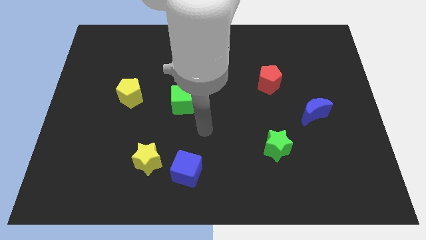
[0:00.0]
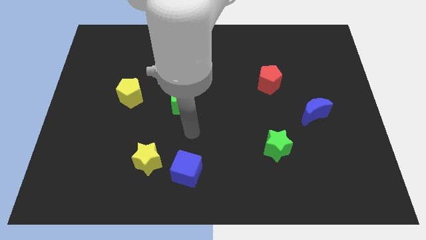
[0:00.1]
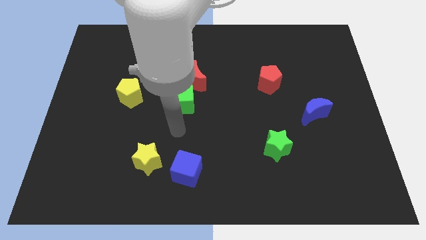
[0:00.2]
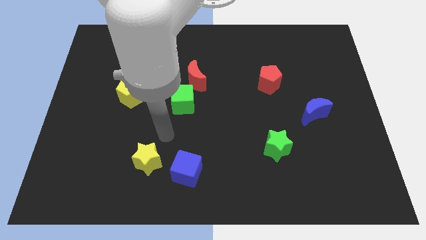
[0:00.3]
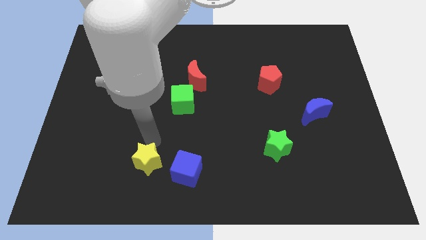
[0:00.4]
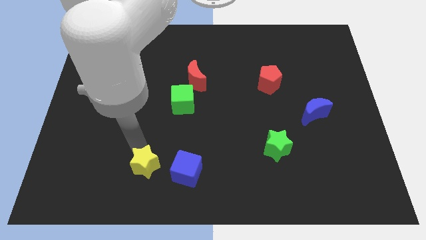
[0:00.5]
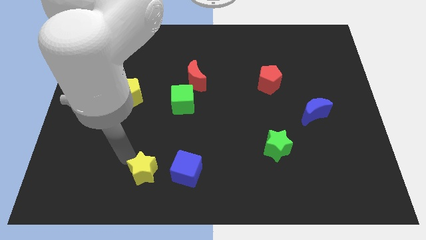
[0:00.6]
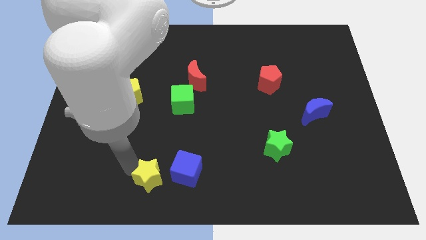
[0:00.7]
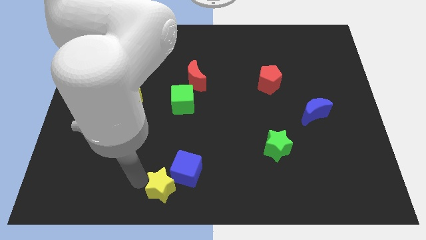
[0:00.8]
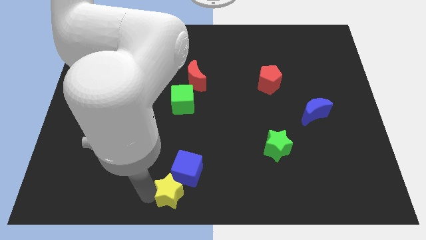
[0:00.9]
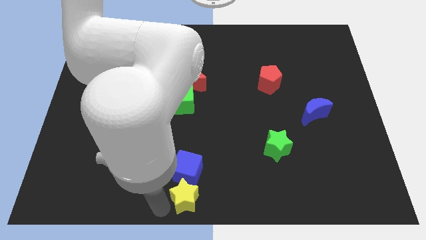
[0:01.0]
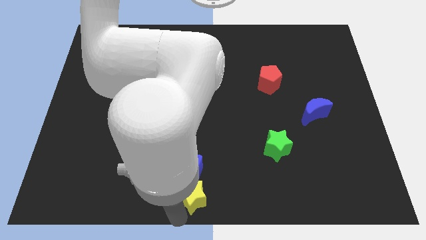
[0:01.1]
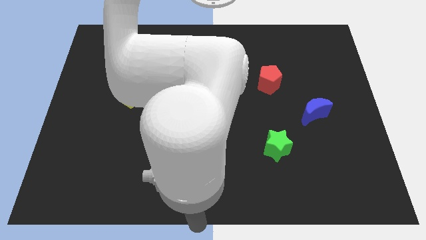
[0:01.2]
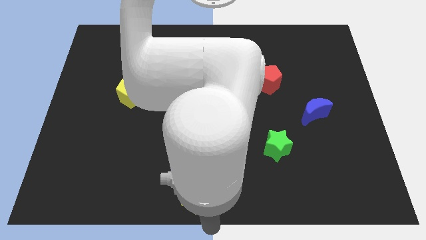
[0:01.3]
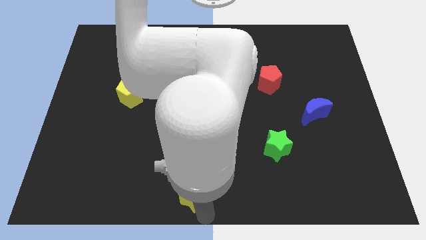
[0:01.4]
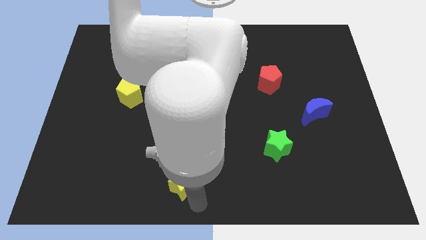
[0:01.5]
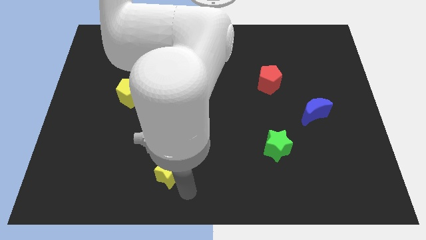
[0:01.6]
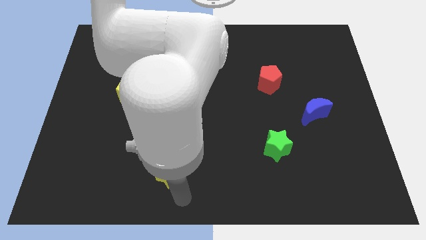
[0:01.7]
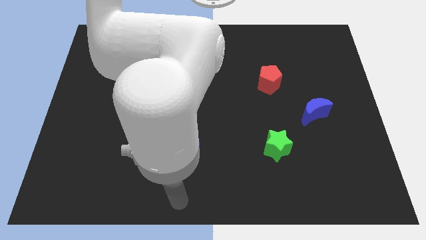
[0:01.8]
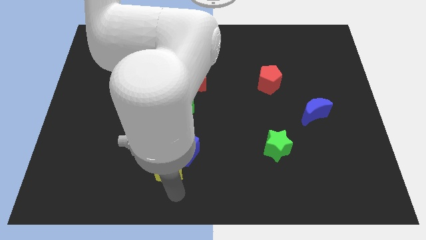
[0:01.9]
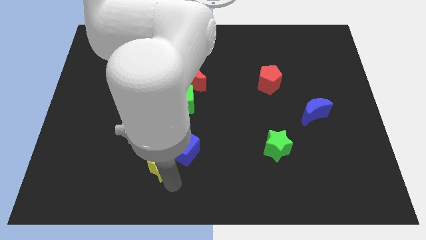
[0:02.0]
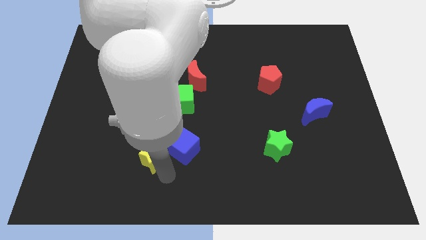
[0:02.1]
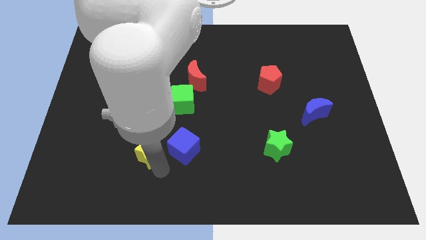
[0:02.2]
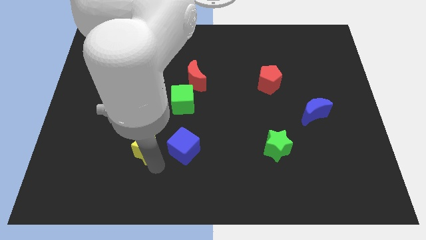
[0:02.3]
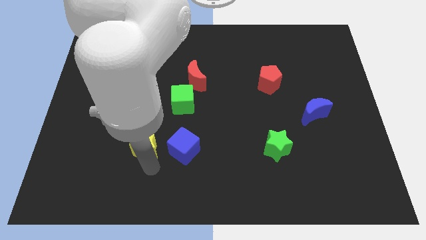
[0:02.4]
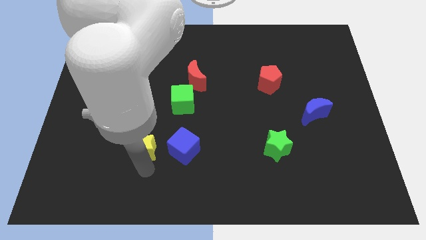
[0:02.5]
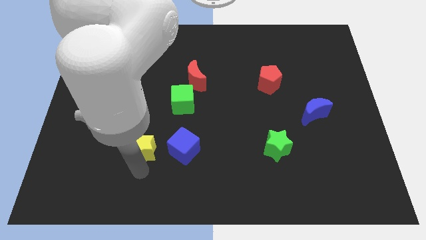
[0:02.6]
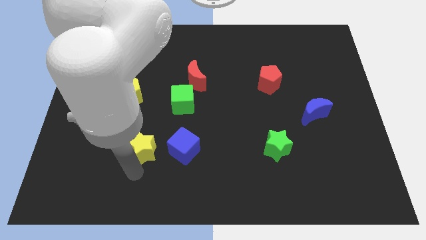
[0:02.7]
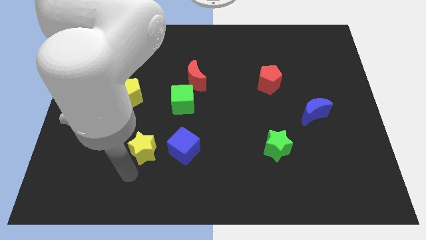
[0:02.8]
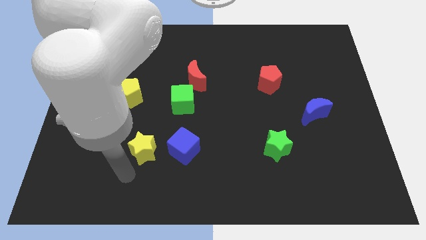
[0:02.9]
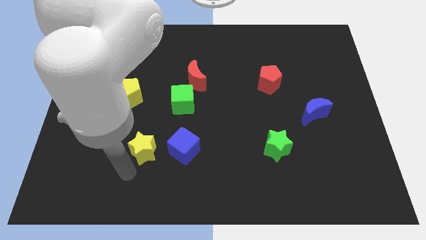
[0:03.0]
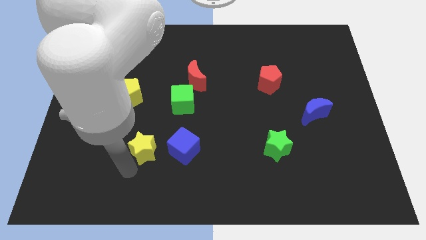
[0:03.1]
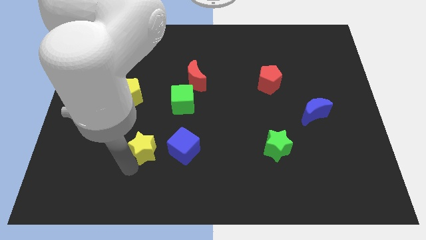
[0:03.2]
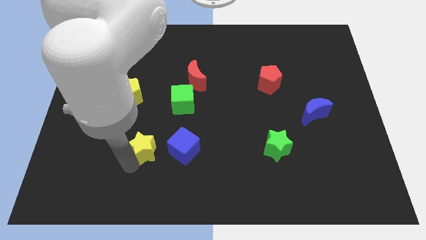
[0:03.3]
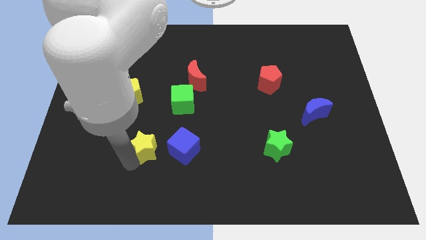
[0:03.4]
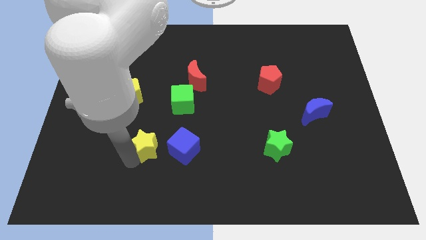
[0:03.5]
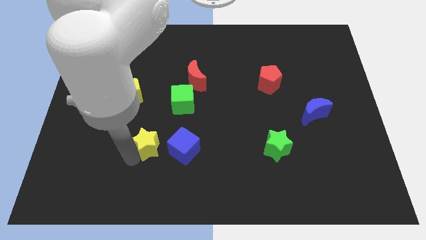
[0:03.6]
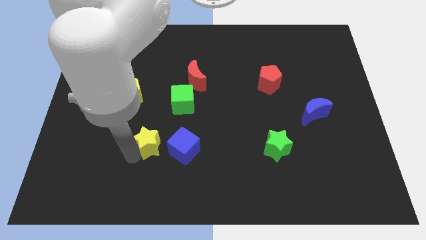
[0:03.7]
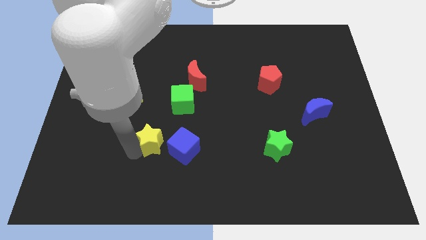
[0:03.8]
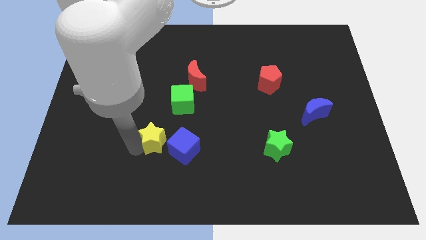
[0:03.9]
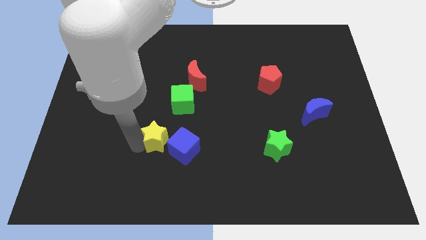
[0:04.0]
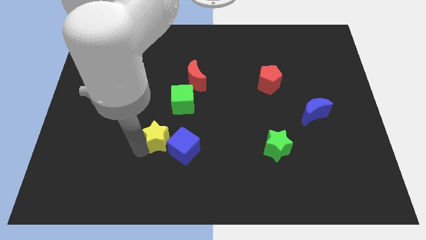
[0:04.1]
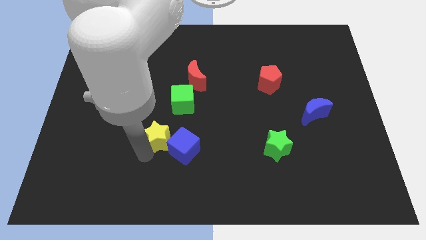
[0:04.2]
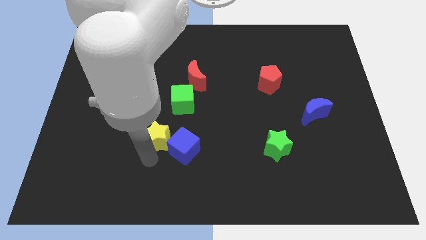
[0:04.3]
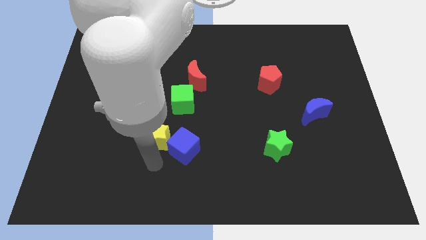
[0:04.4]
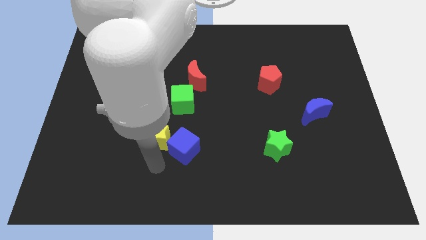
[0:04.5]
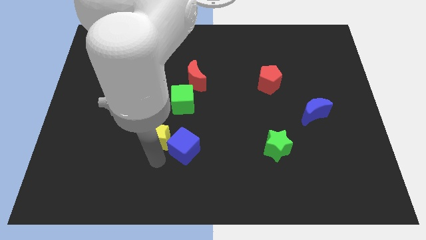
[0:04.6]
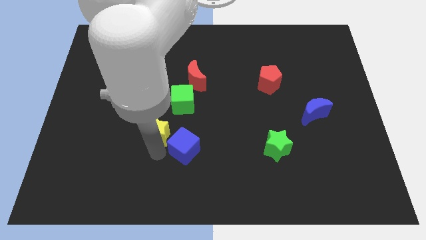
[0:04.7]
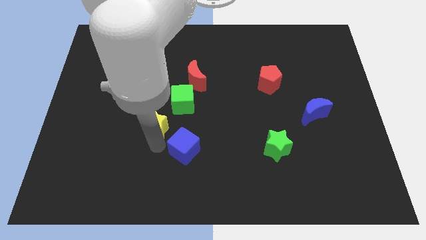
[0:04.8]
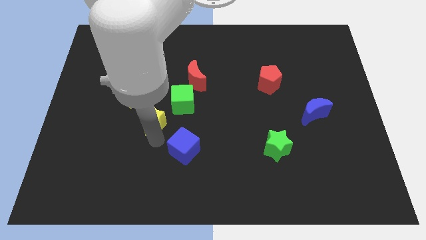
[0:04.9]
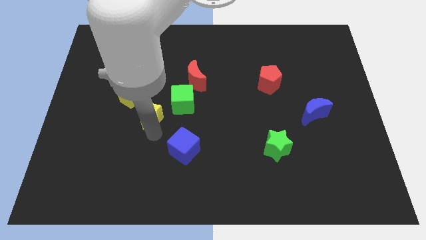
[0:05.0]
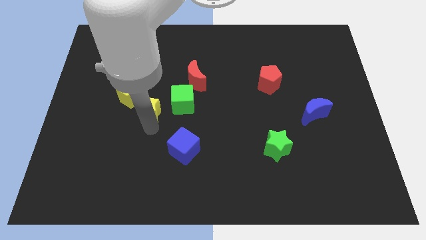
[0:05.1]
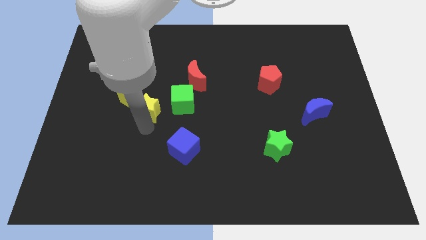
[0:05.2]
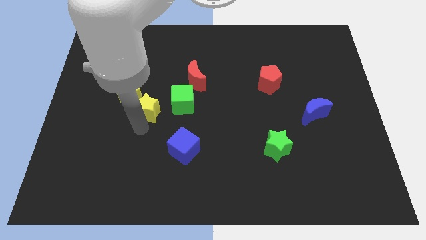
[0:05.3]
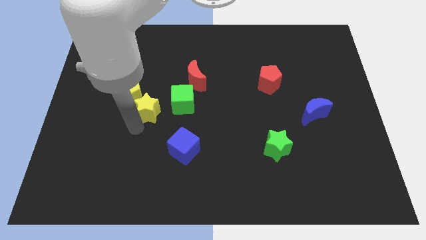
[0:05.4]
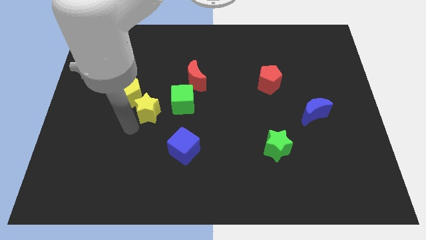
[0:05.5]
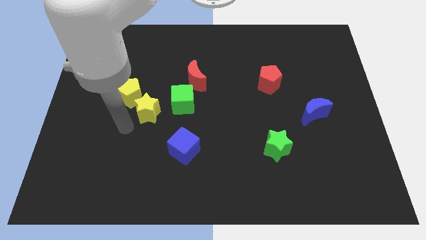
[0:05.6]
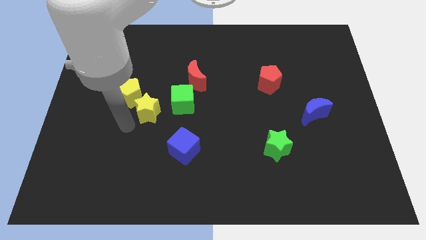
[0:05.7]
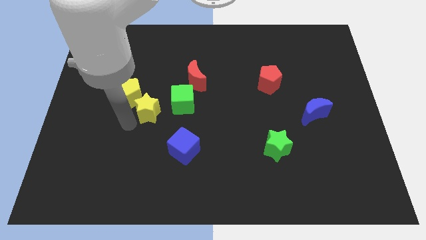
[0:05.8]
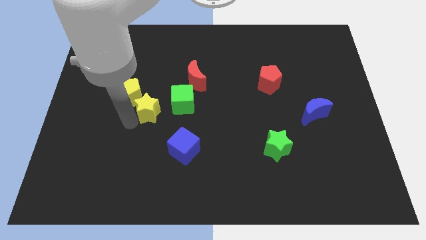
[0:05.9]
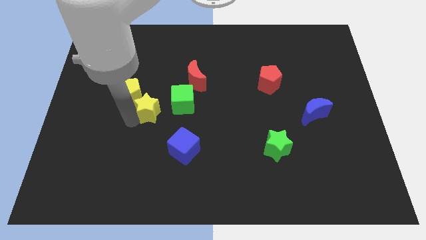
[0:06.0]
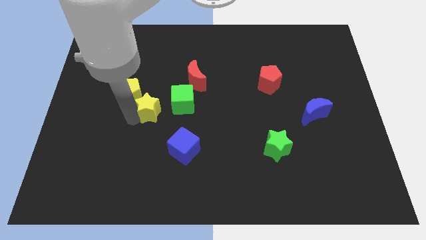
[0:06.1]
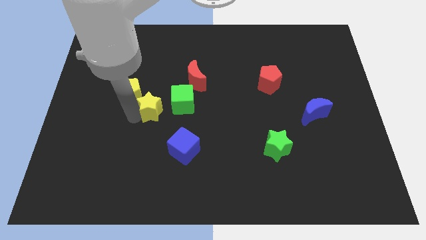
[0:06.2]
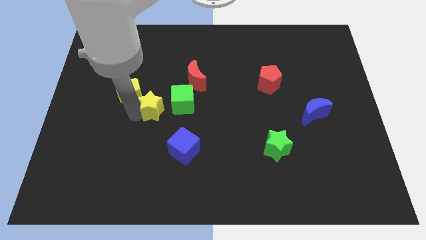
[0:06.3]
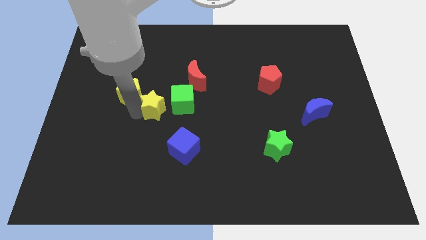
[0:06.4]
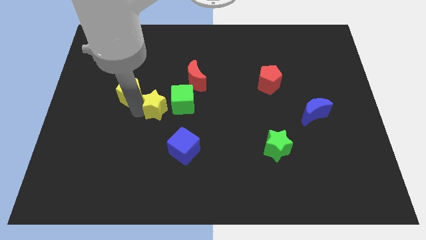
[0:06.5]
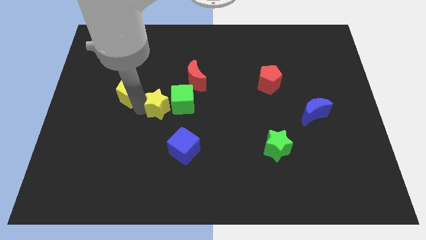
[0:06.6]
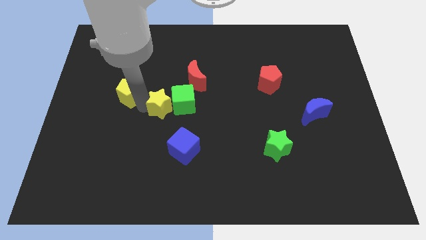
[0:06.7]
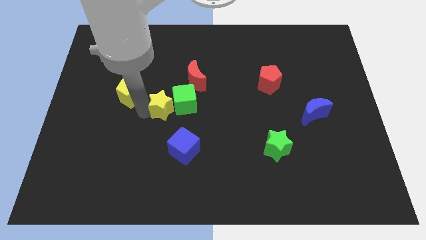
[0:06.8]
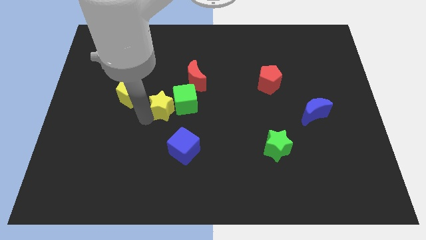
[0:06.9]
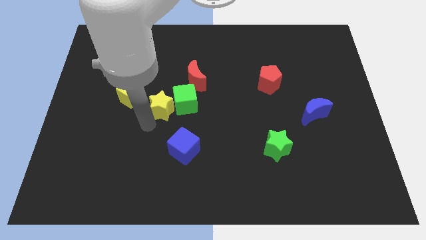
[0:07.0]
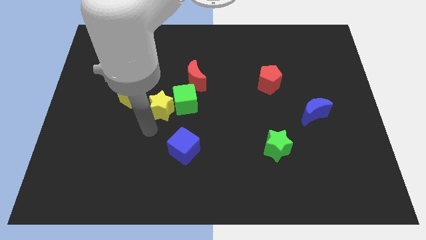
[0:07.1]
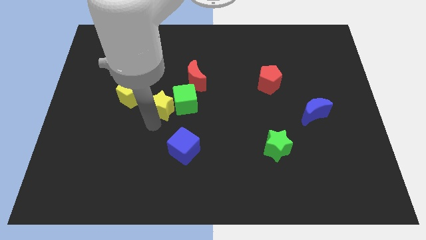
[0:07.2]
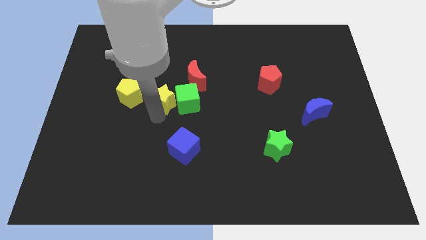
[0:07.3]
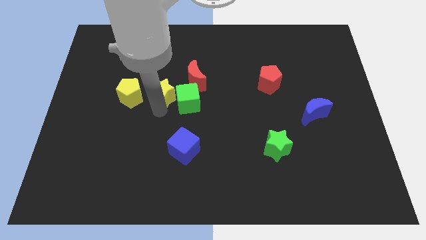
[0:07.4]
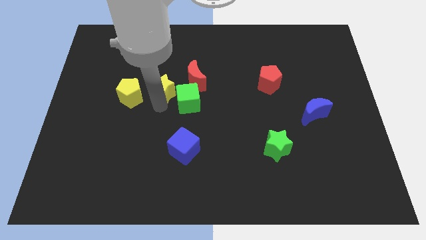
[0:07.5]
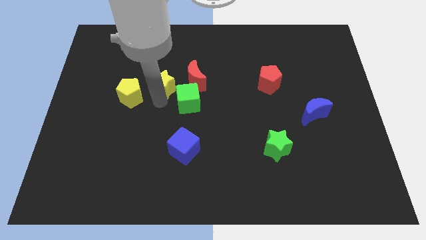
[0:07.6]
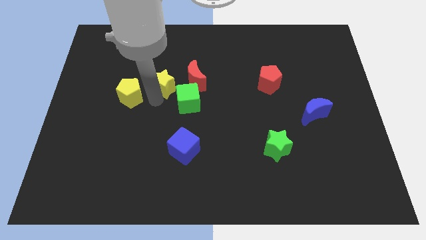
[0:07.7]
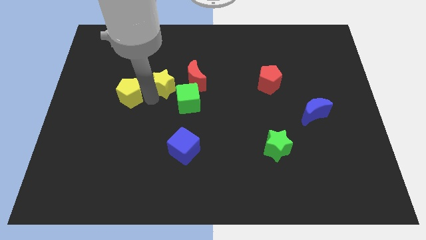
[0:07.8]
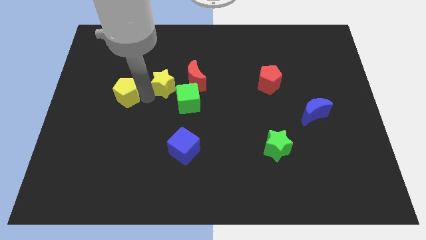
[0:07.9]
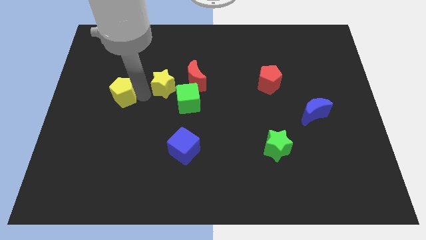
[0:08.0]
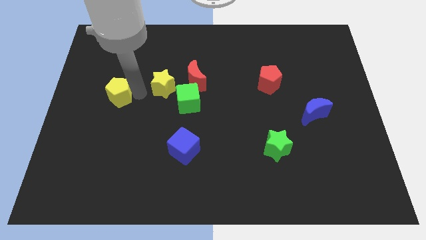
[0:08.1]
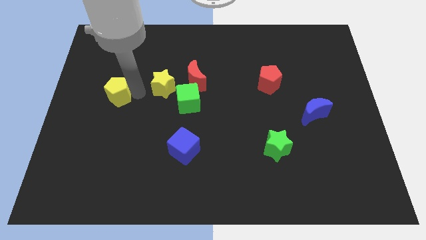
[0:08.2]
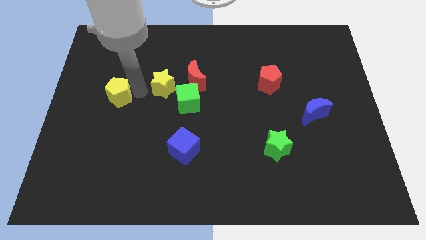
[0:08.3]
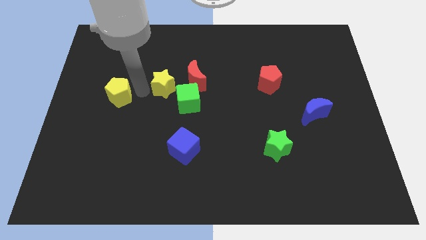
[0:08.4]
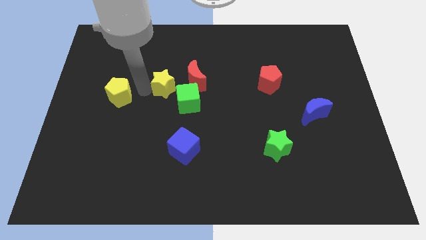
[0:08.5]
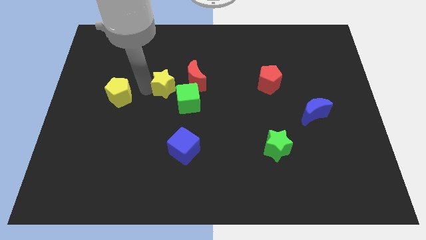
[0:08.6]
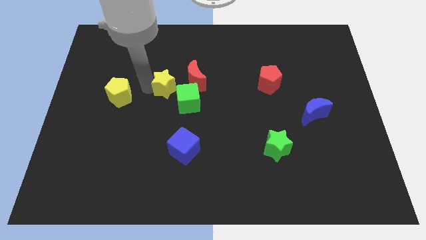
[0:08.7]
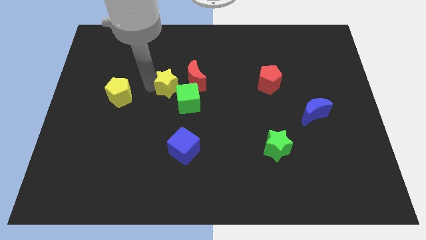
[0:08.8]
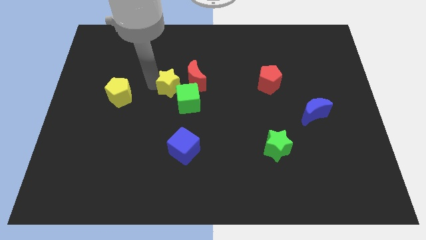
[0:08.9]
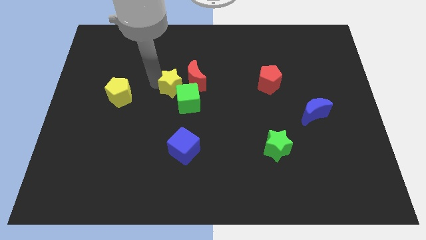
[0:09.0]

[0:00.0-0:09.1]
put the yellow star next to the red moon
